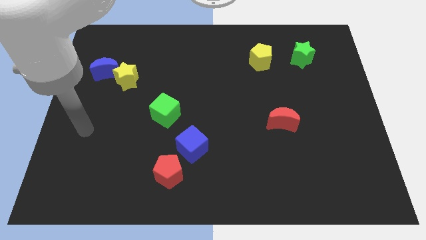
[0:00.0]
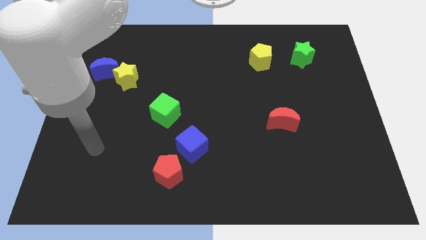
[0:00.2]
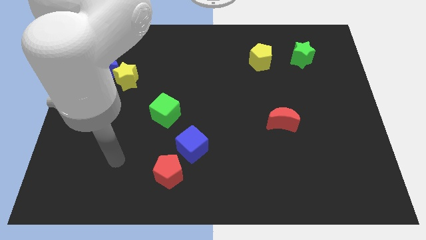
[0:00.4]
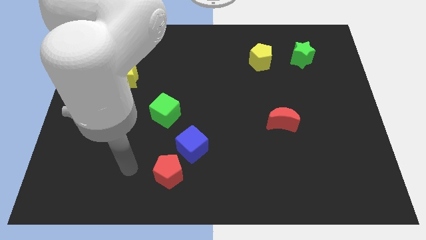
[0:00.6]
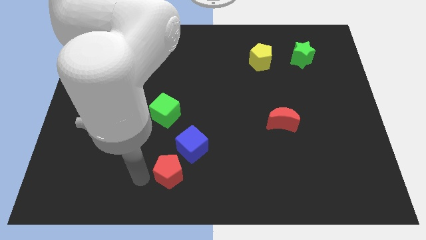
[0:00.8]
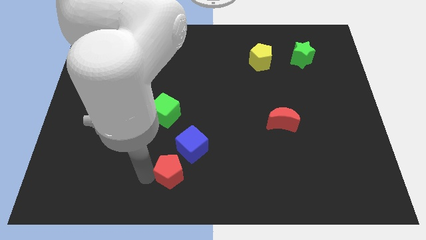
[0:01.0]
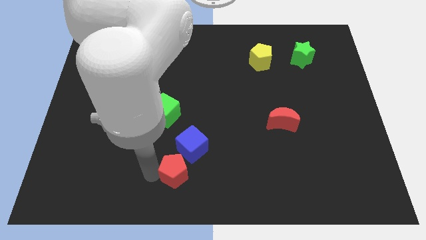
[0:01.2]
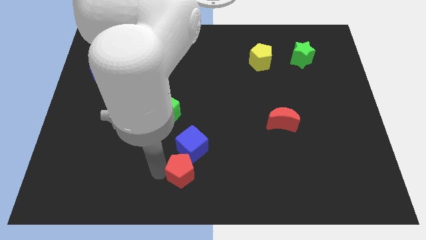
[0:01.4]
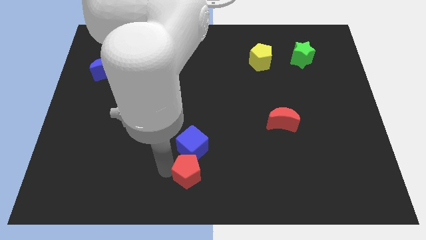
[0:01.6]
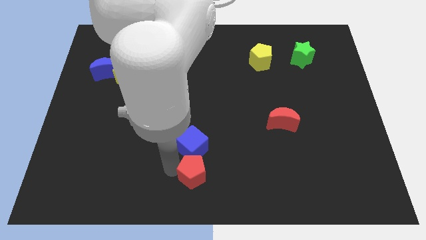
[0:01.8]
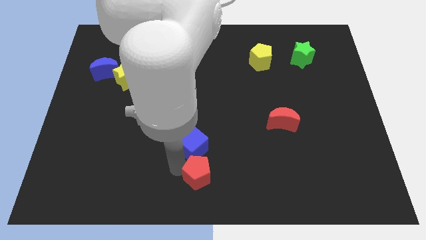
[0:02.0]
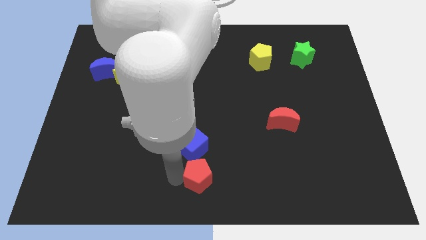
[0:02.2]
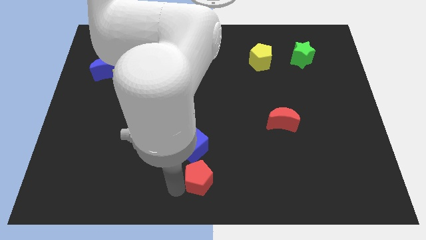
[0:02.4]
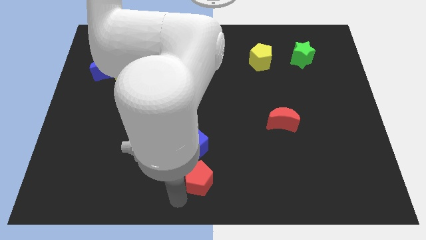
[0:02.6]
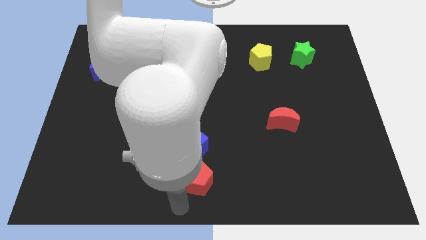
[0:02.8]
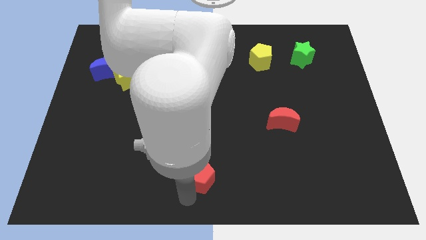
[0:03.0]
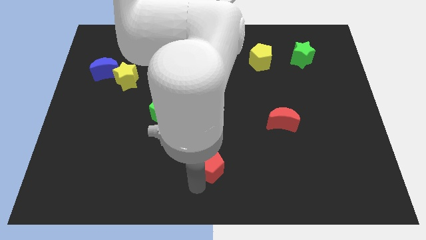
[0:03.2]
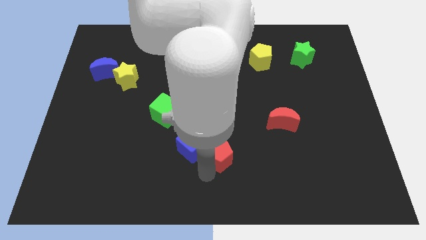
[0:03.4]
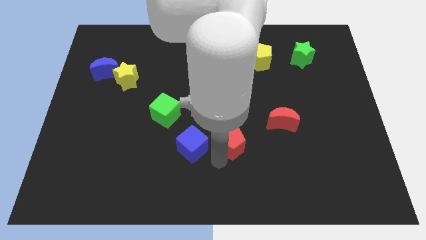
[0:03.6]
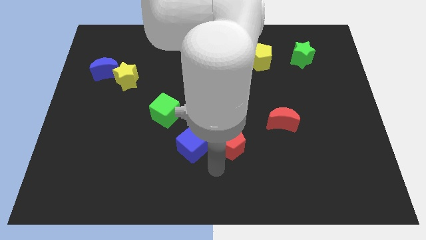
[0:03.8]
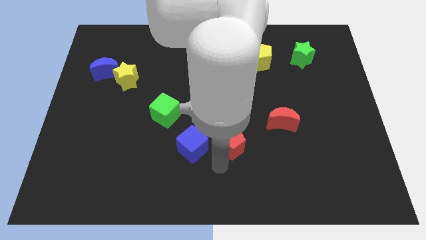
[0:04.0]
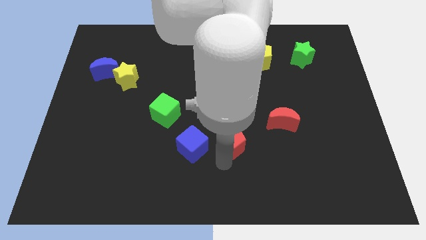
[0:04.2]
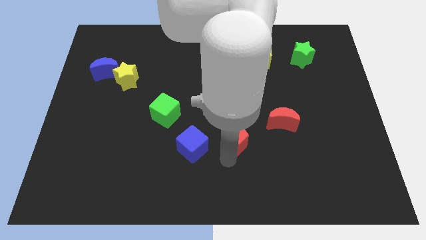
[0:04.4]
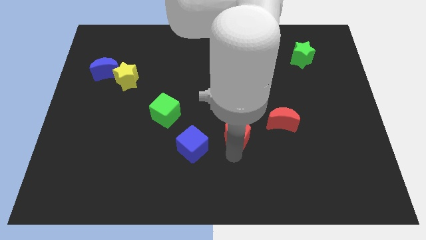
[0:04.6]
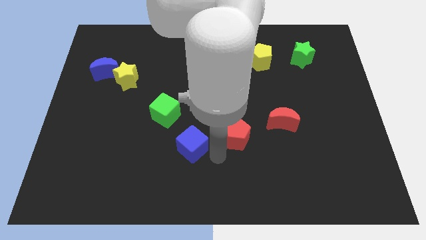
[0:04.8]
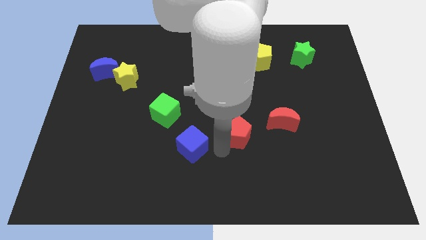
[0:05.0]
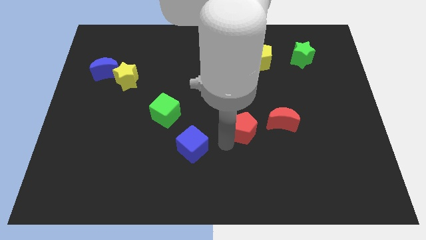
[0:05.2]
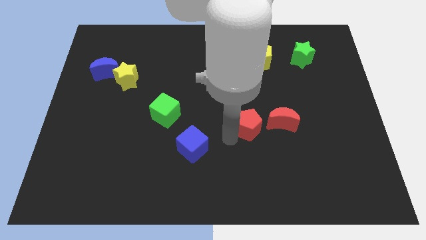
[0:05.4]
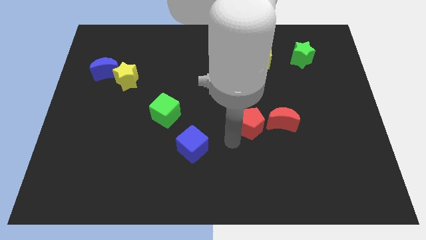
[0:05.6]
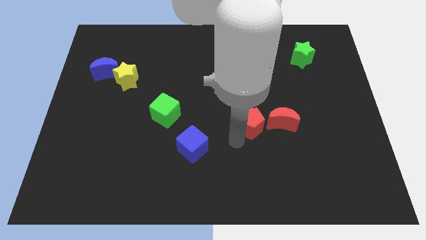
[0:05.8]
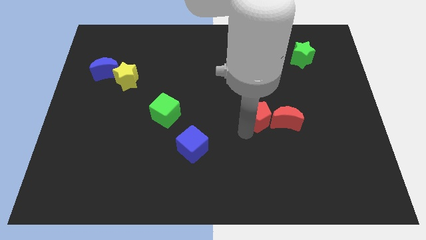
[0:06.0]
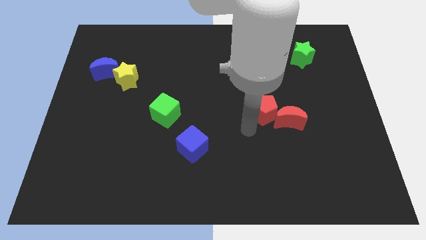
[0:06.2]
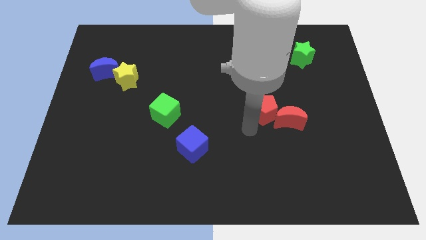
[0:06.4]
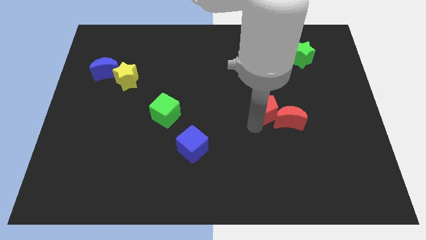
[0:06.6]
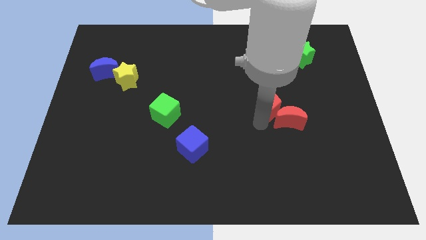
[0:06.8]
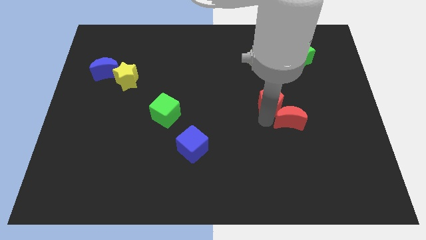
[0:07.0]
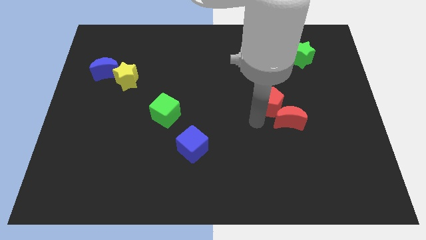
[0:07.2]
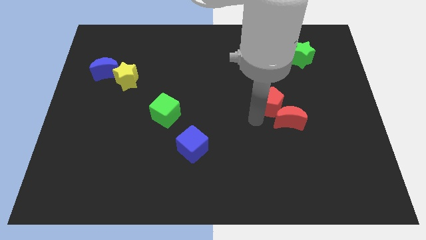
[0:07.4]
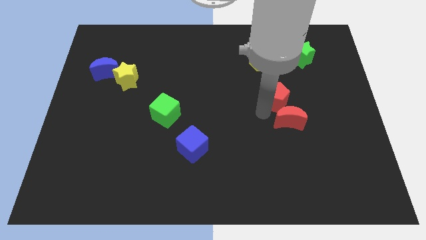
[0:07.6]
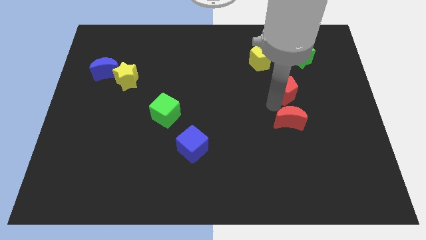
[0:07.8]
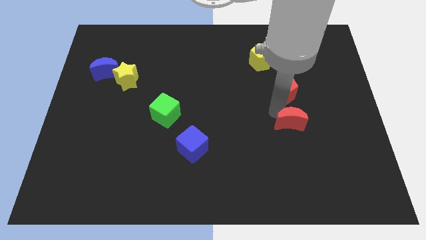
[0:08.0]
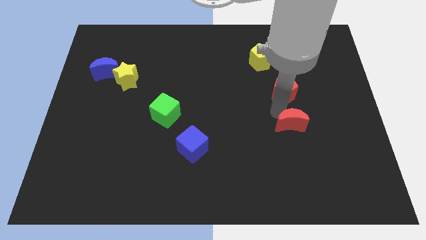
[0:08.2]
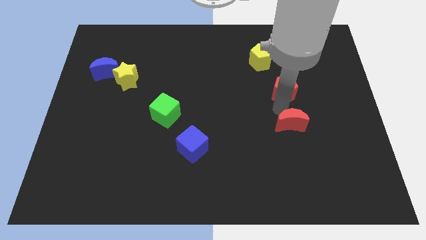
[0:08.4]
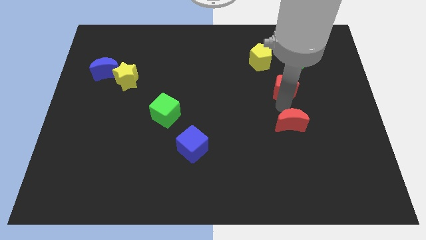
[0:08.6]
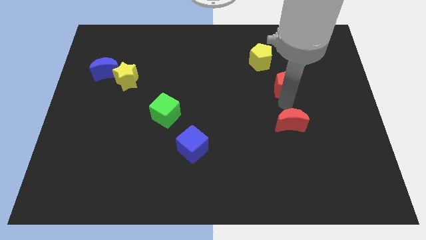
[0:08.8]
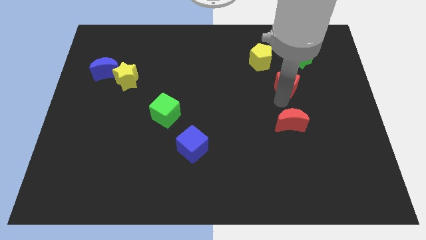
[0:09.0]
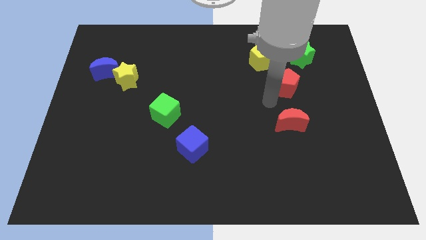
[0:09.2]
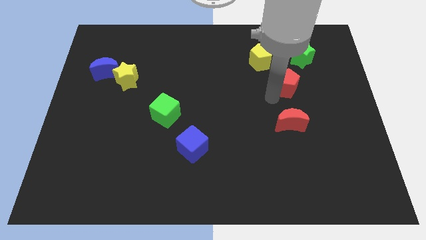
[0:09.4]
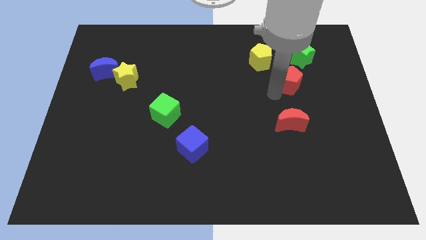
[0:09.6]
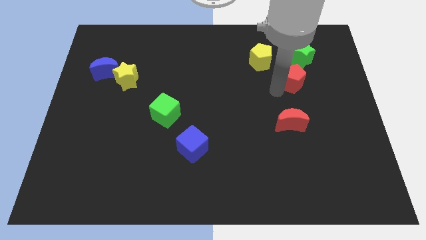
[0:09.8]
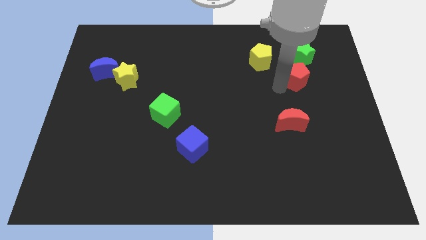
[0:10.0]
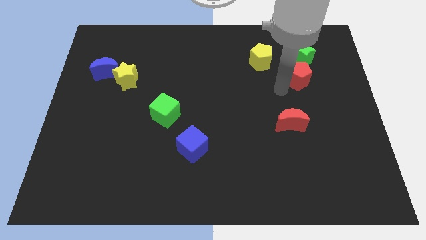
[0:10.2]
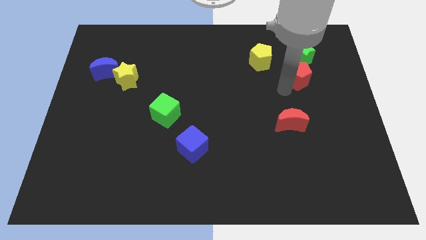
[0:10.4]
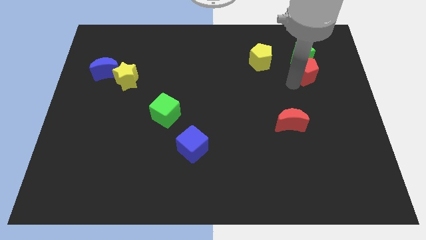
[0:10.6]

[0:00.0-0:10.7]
push the red pentagon right of the yellow pentagon
